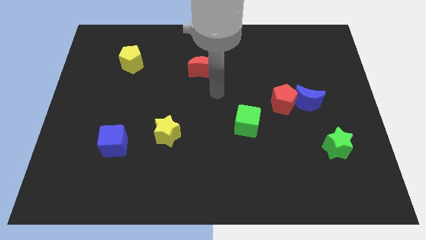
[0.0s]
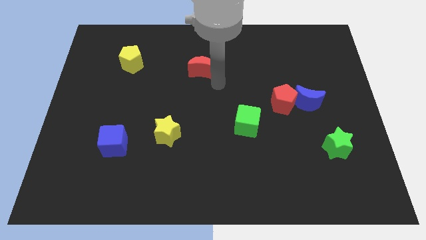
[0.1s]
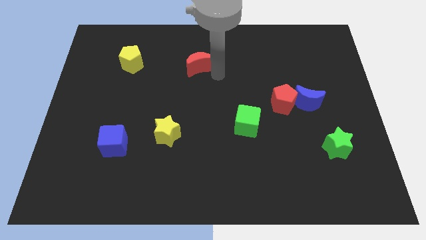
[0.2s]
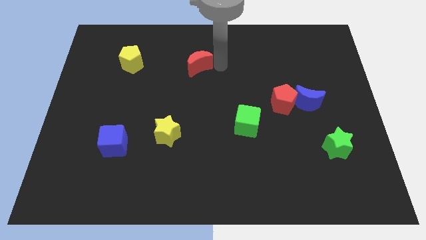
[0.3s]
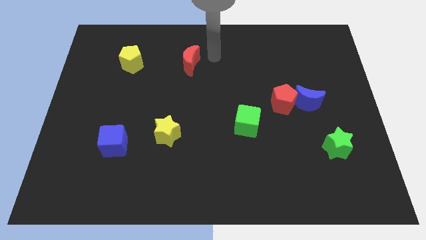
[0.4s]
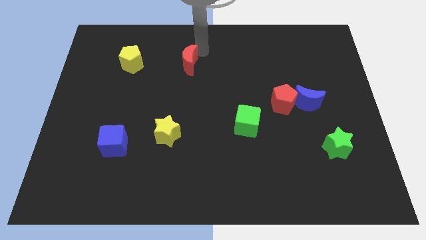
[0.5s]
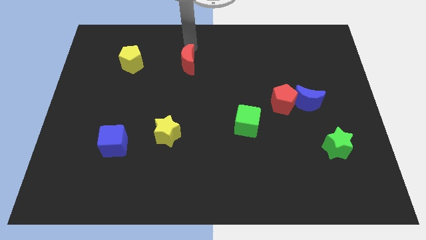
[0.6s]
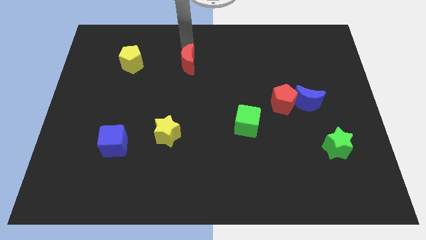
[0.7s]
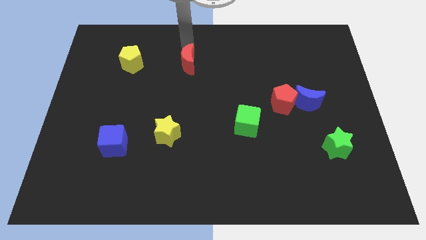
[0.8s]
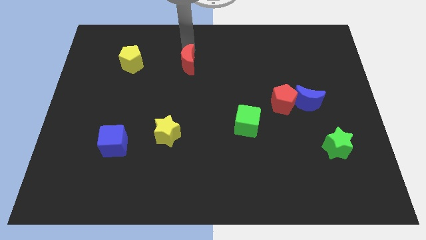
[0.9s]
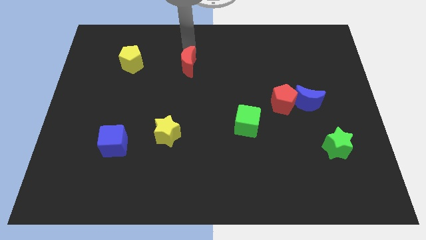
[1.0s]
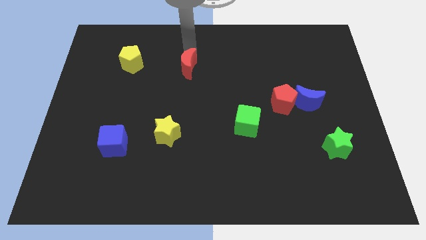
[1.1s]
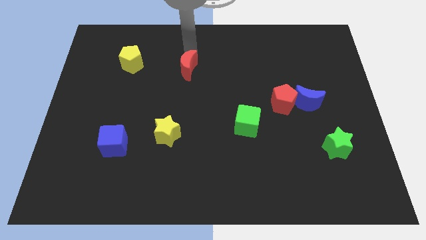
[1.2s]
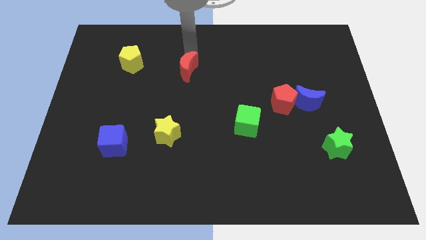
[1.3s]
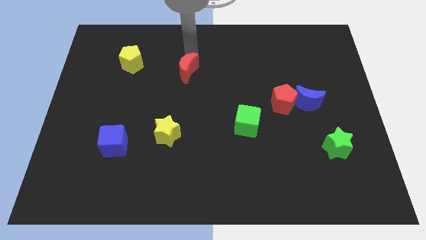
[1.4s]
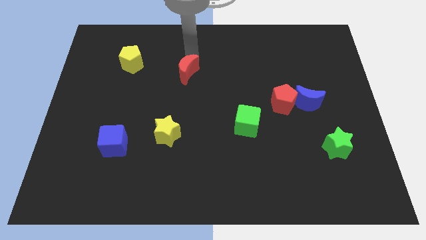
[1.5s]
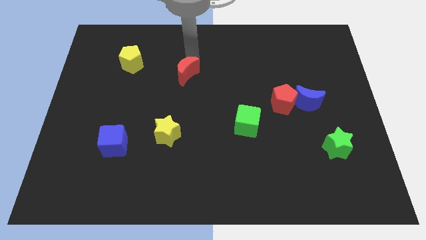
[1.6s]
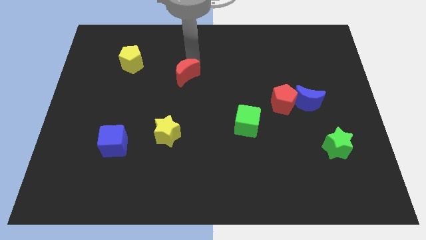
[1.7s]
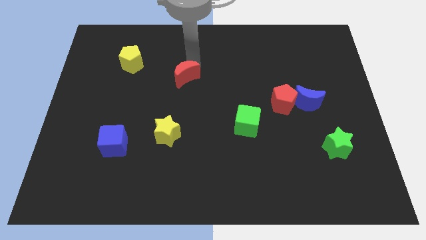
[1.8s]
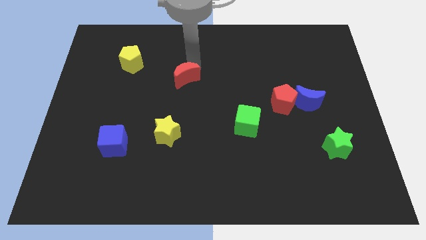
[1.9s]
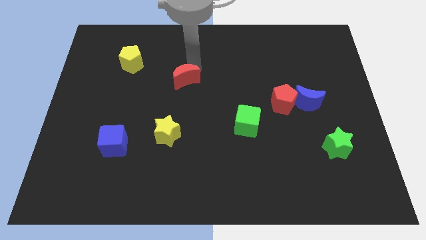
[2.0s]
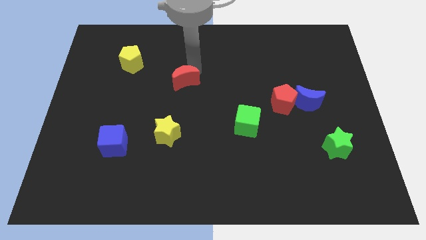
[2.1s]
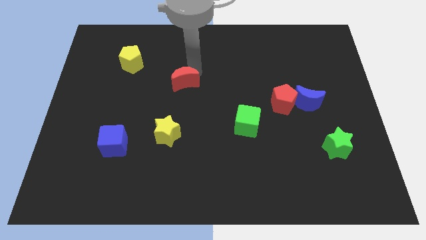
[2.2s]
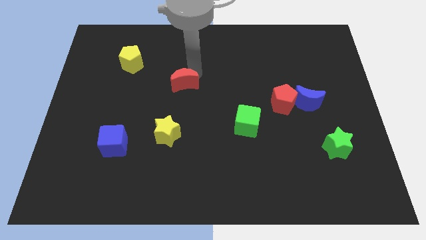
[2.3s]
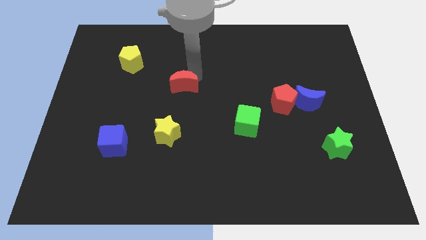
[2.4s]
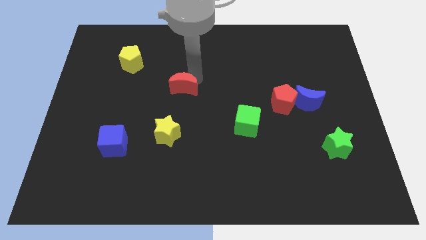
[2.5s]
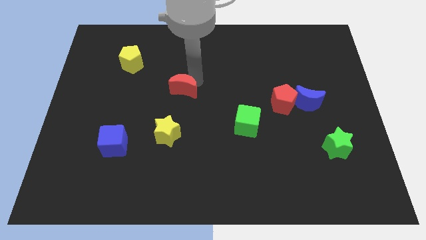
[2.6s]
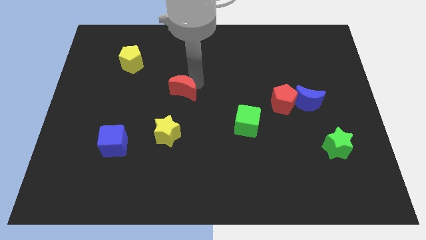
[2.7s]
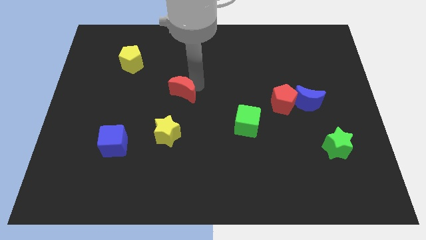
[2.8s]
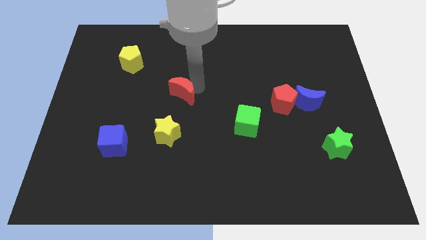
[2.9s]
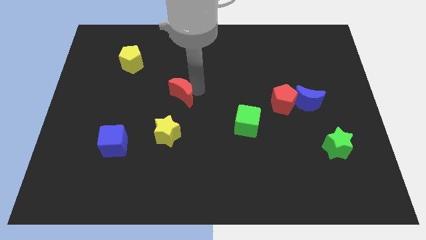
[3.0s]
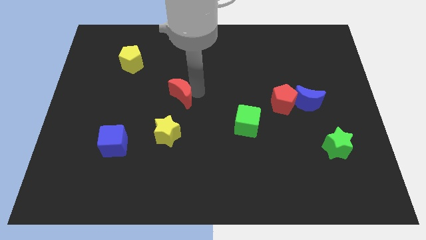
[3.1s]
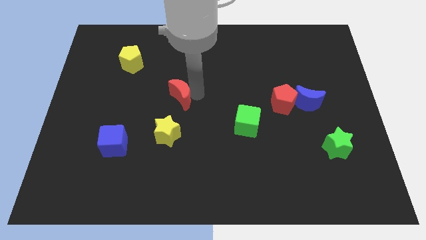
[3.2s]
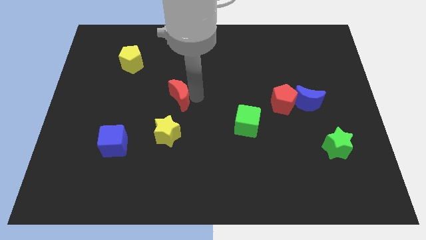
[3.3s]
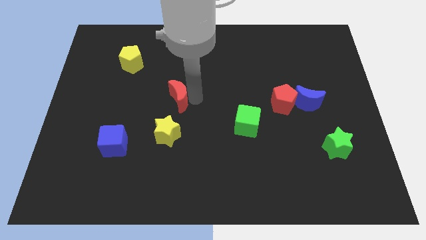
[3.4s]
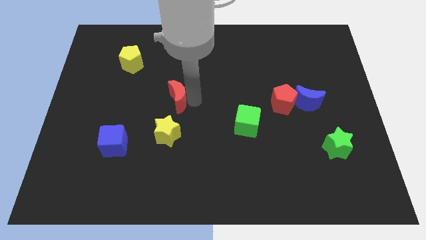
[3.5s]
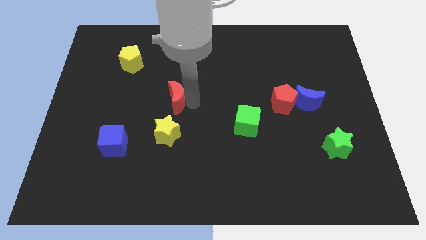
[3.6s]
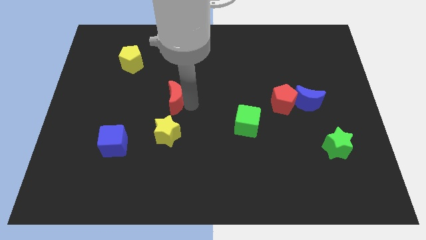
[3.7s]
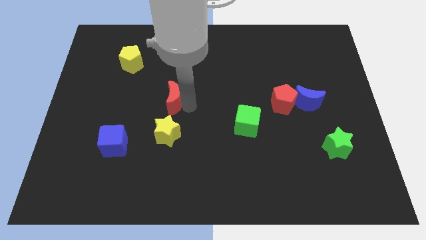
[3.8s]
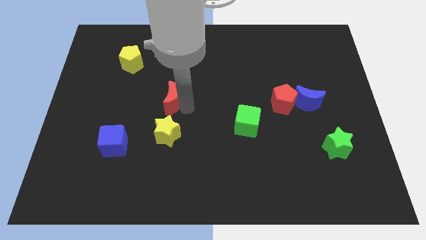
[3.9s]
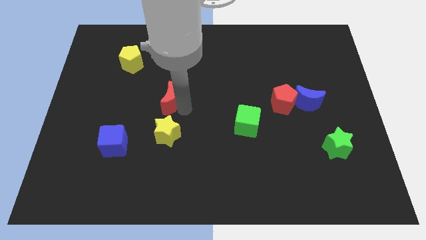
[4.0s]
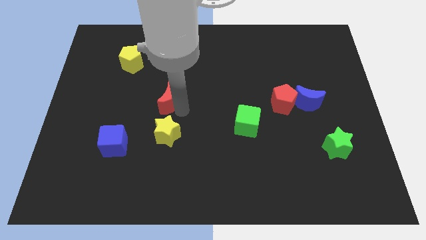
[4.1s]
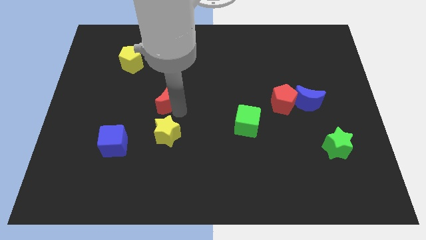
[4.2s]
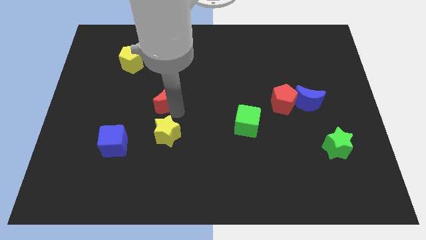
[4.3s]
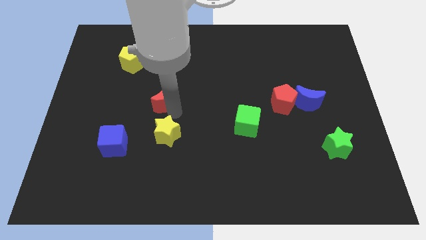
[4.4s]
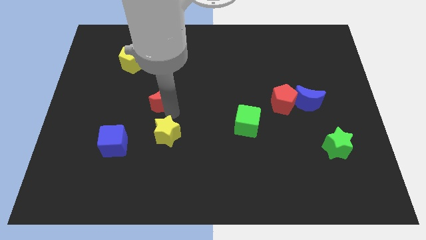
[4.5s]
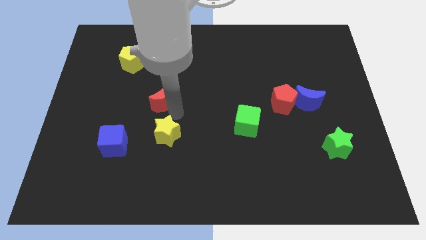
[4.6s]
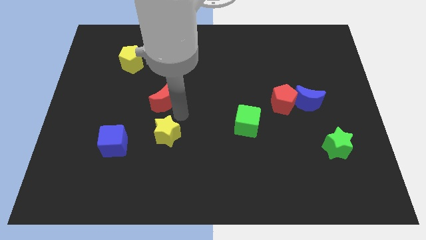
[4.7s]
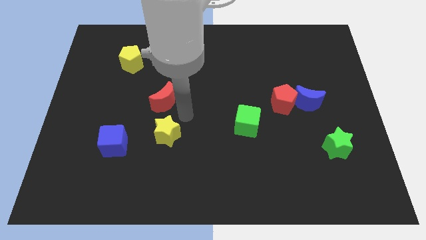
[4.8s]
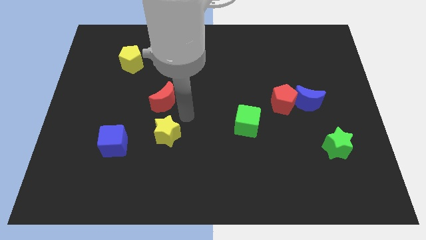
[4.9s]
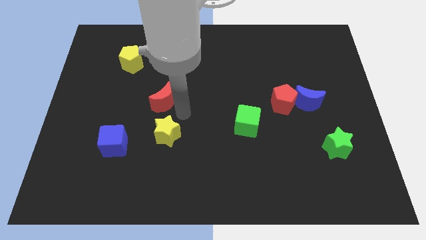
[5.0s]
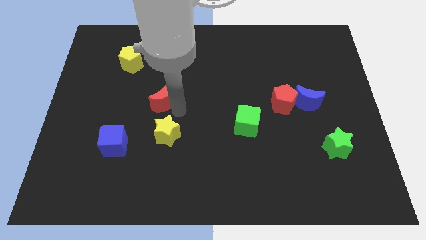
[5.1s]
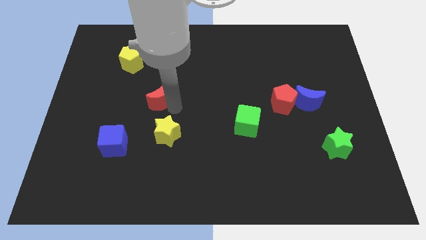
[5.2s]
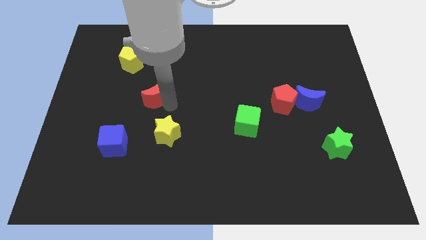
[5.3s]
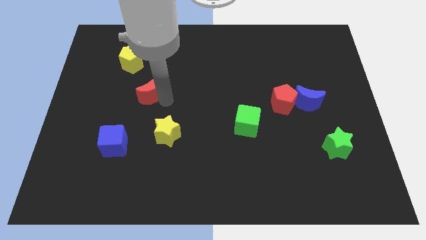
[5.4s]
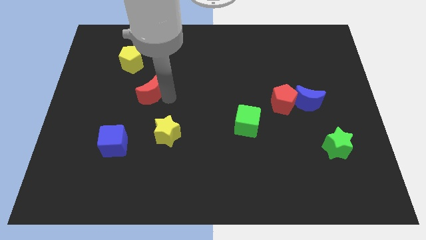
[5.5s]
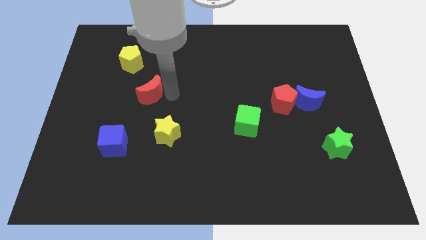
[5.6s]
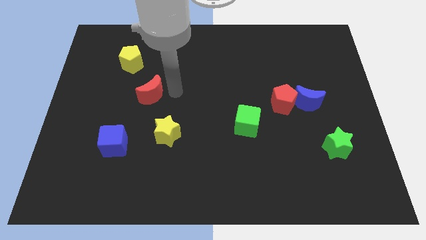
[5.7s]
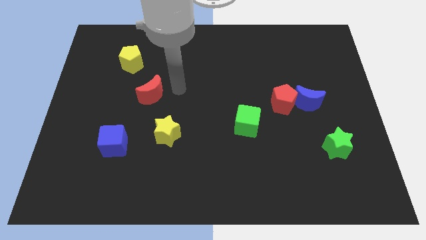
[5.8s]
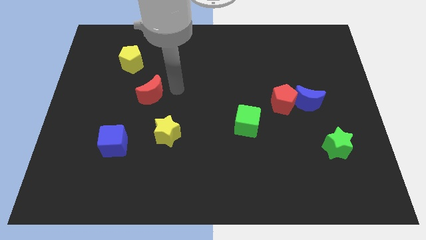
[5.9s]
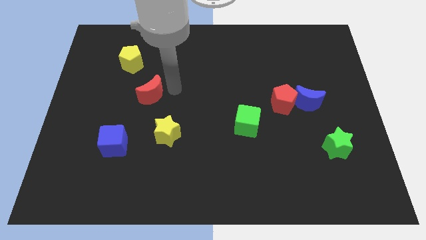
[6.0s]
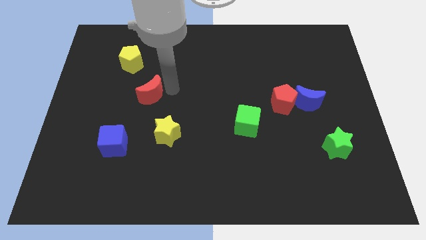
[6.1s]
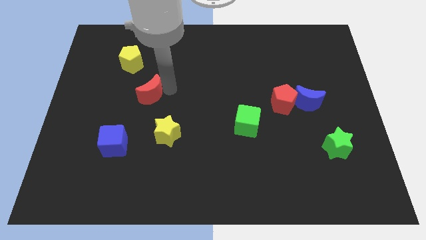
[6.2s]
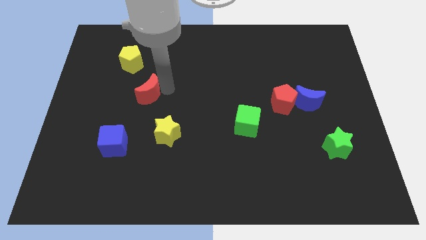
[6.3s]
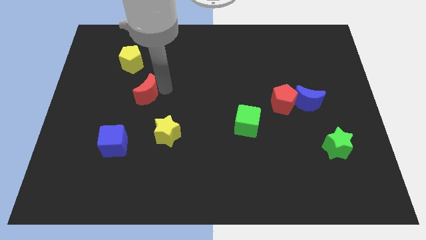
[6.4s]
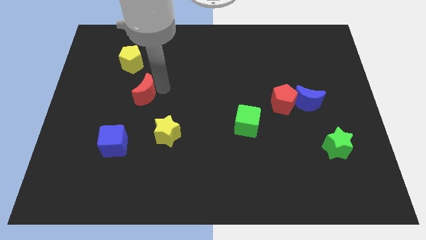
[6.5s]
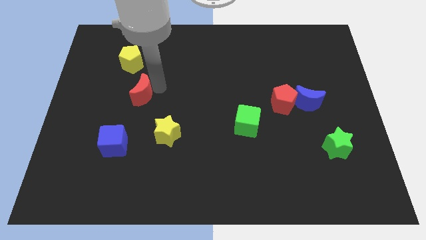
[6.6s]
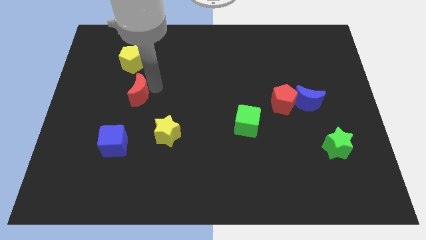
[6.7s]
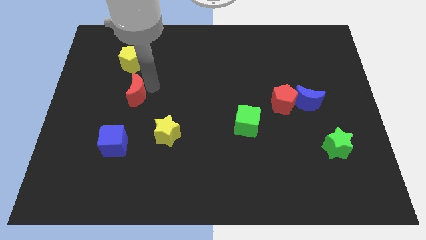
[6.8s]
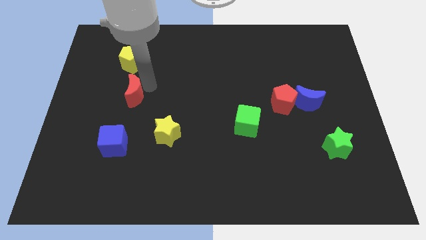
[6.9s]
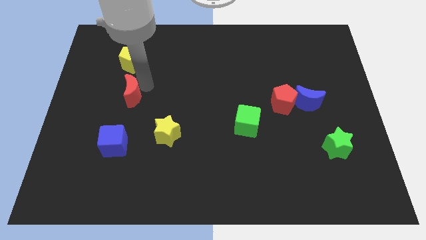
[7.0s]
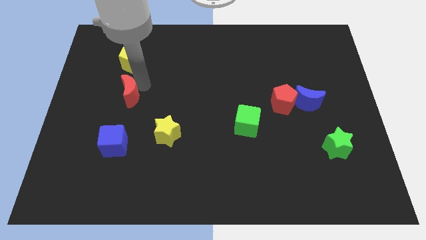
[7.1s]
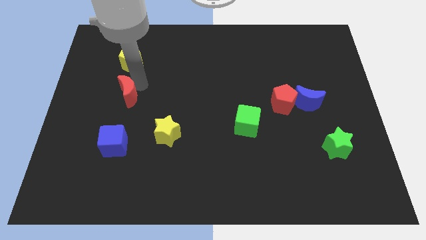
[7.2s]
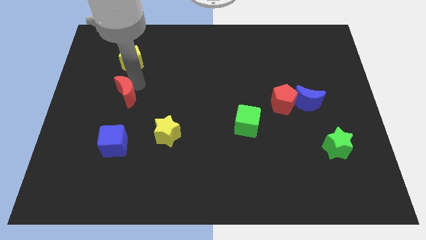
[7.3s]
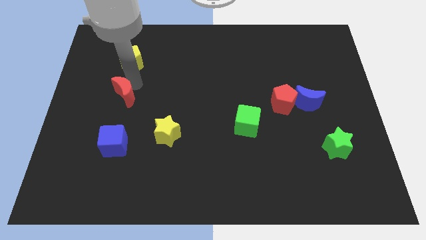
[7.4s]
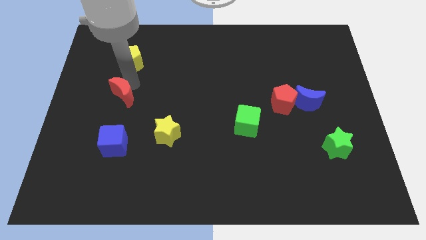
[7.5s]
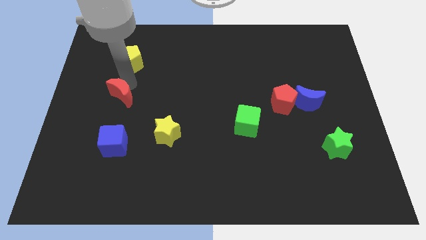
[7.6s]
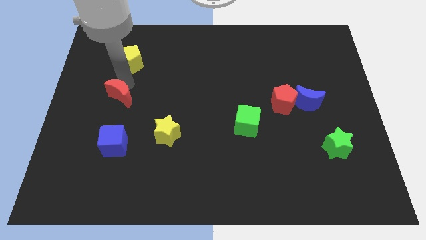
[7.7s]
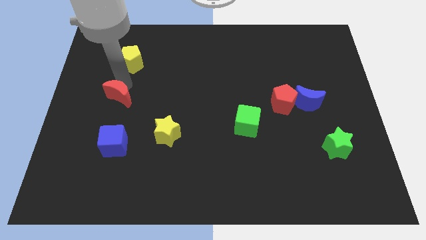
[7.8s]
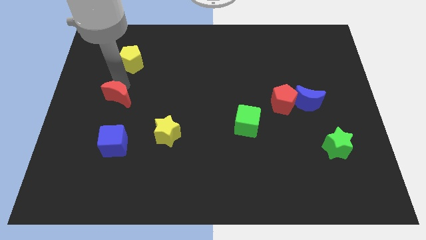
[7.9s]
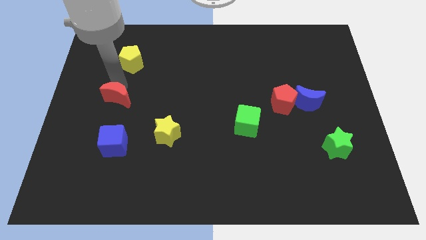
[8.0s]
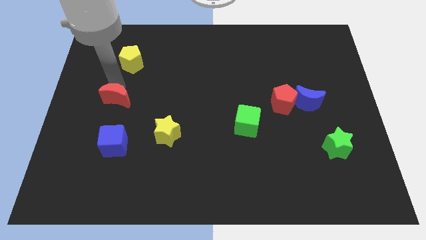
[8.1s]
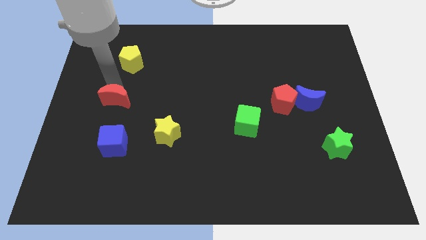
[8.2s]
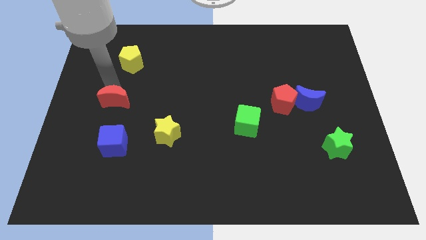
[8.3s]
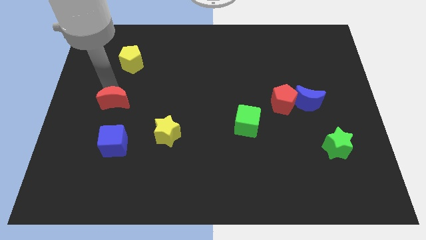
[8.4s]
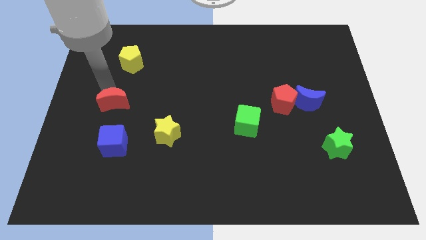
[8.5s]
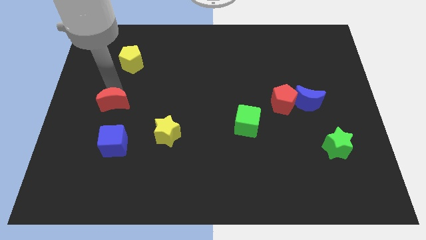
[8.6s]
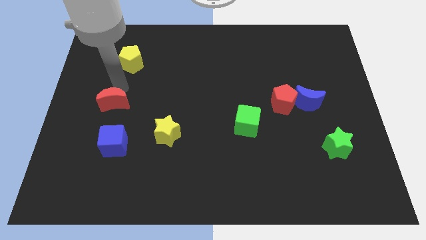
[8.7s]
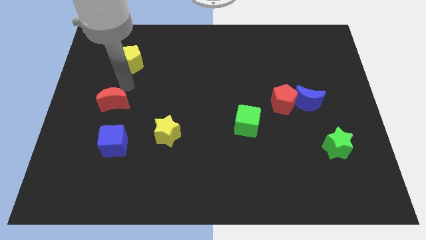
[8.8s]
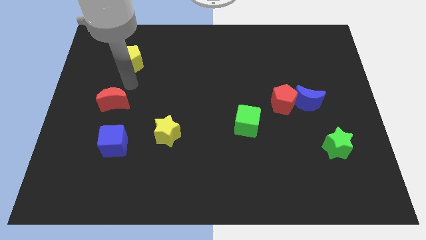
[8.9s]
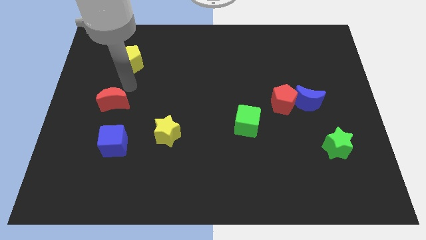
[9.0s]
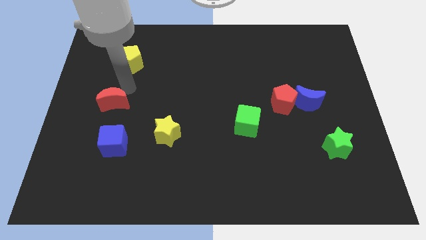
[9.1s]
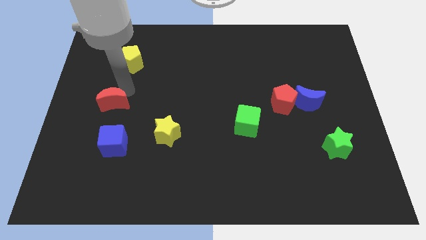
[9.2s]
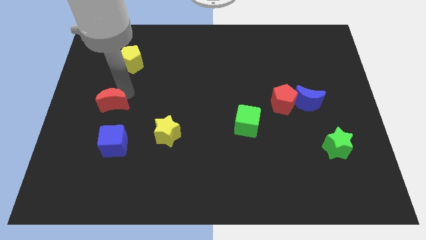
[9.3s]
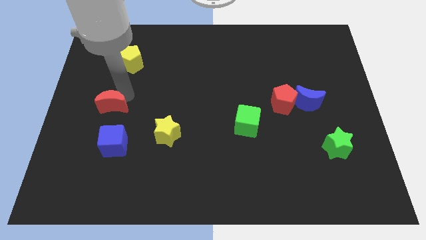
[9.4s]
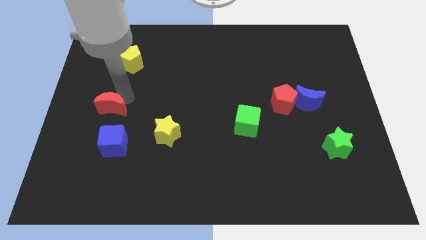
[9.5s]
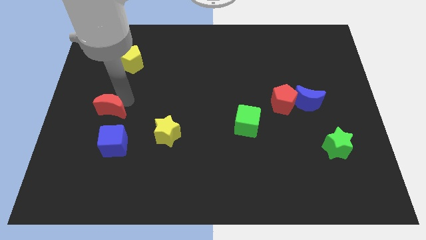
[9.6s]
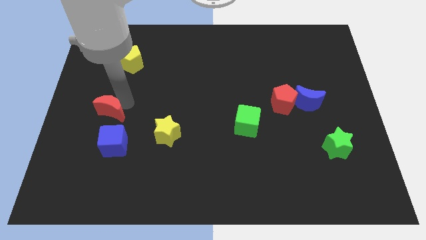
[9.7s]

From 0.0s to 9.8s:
put the red moon to the top left side of the blue cube
